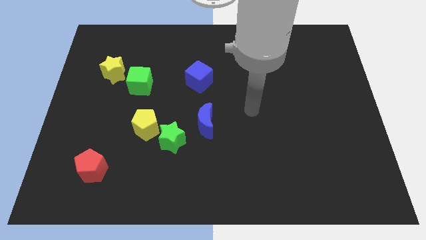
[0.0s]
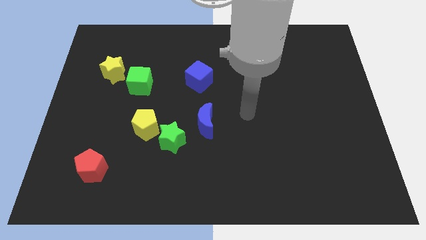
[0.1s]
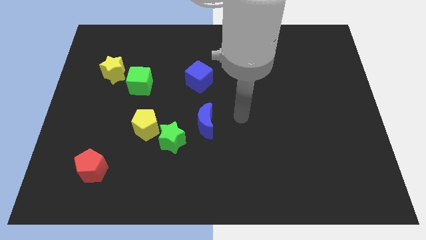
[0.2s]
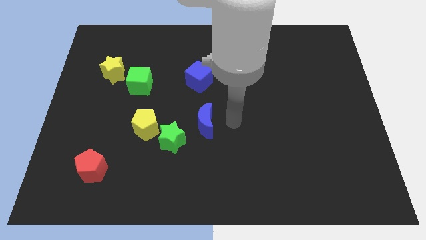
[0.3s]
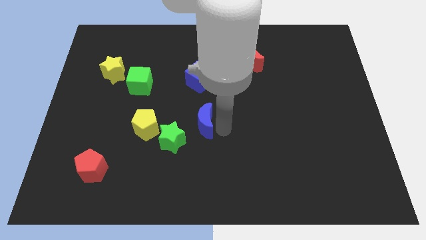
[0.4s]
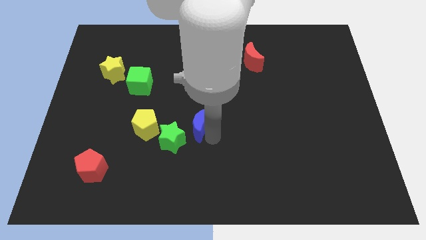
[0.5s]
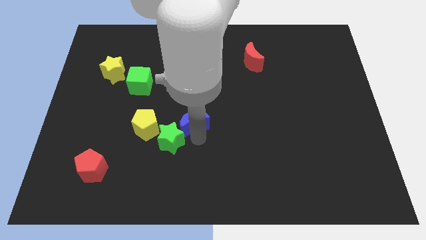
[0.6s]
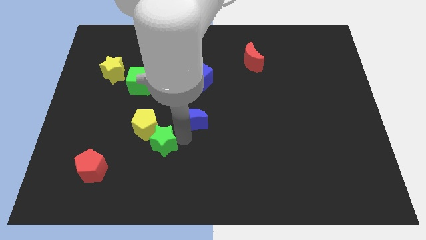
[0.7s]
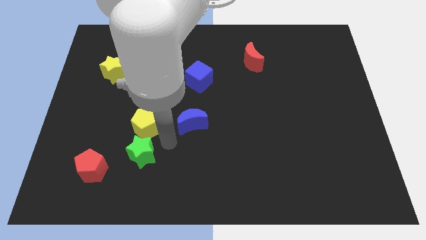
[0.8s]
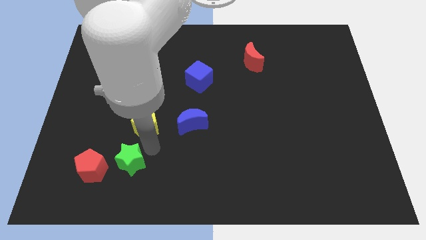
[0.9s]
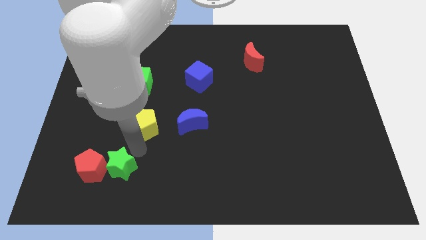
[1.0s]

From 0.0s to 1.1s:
move the yellow pentagon away from the green star

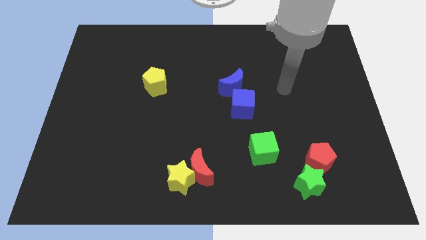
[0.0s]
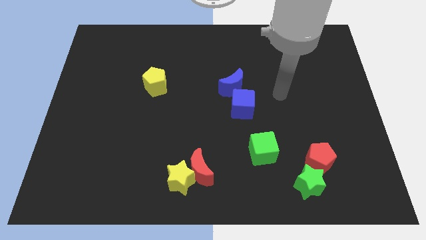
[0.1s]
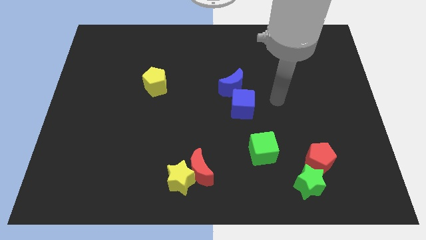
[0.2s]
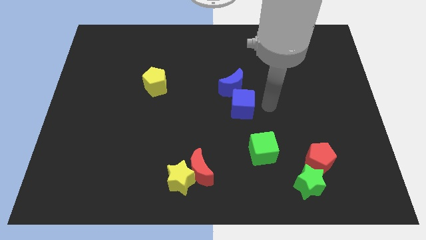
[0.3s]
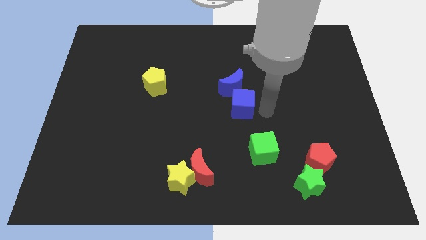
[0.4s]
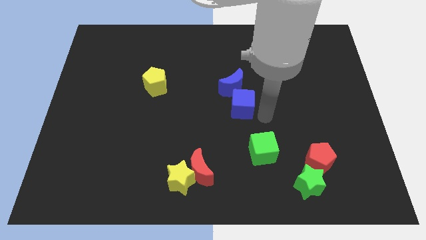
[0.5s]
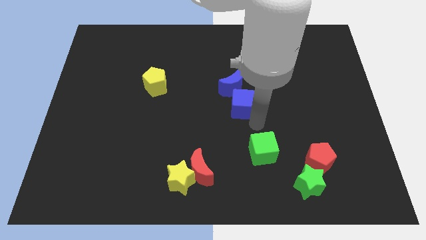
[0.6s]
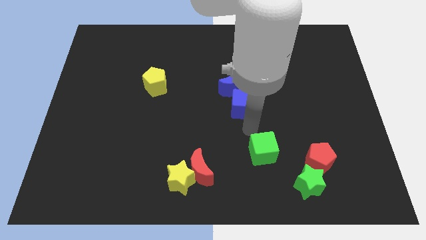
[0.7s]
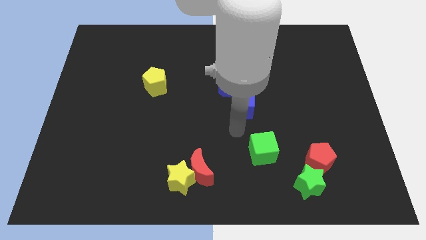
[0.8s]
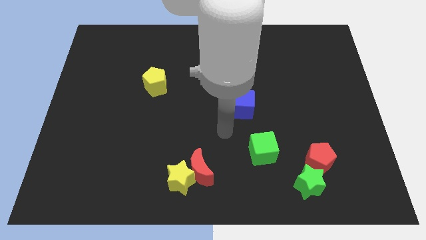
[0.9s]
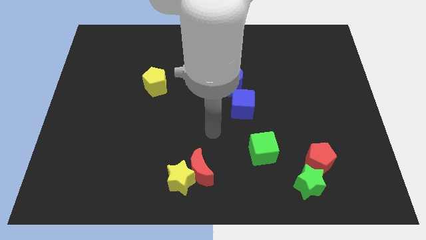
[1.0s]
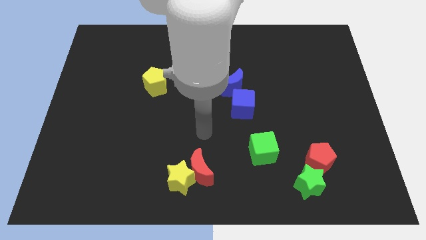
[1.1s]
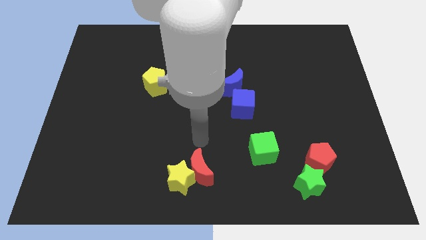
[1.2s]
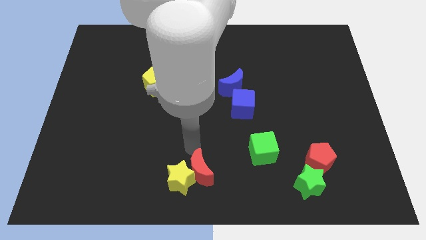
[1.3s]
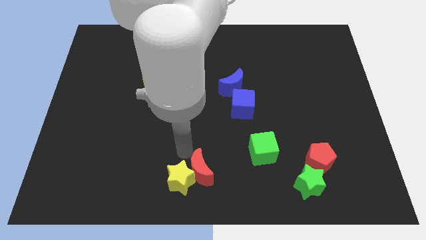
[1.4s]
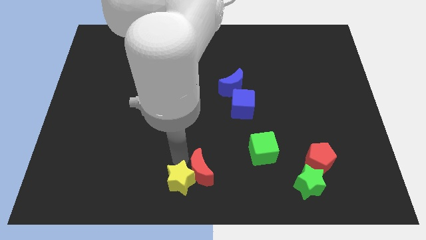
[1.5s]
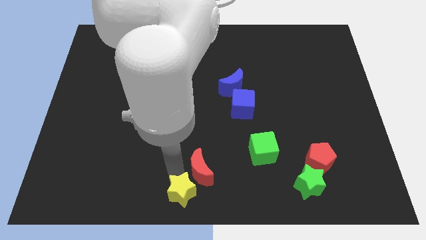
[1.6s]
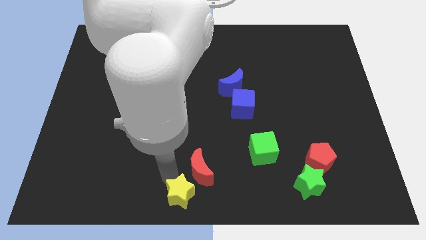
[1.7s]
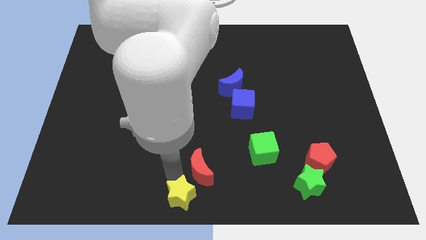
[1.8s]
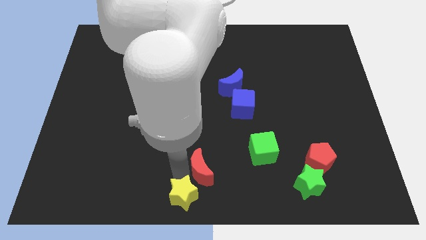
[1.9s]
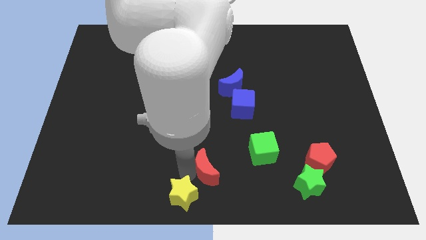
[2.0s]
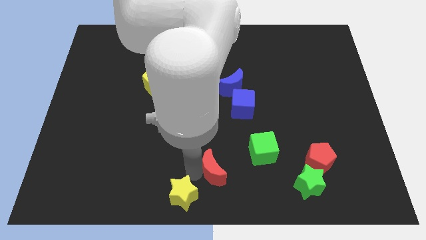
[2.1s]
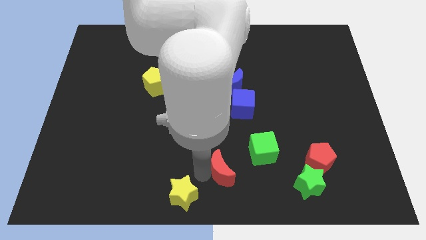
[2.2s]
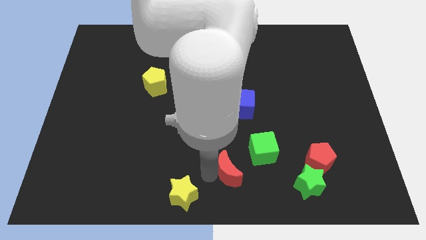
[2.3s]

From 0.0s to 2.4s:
move the red moon away from the yellow star

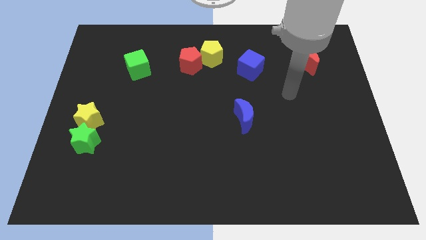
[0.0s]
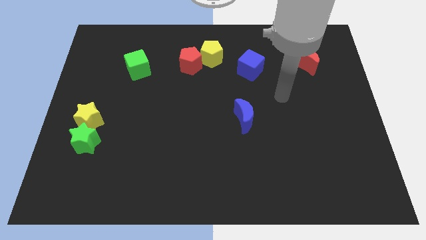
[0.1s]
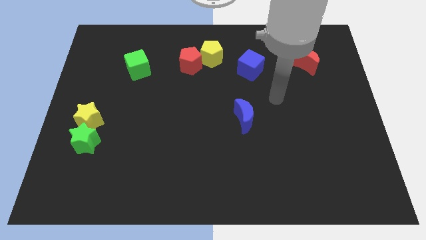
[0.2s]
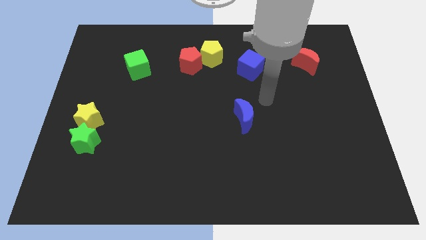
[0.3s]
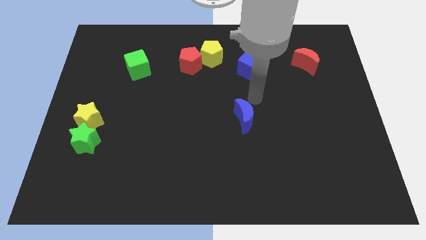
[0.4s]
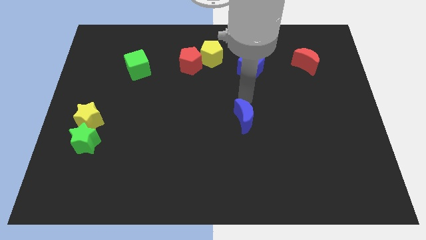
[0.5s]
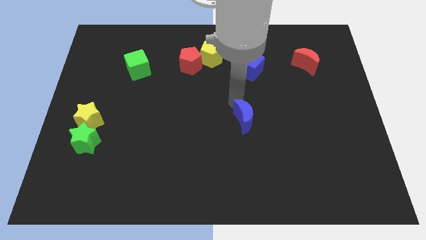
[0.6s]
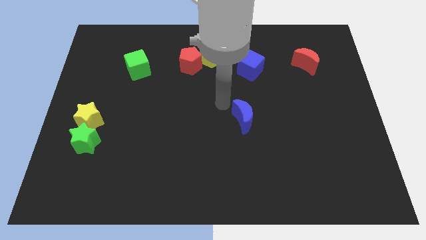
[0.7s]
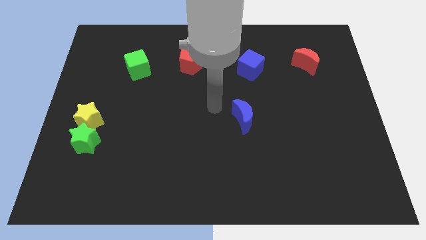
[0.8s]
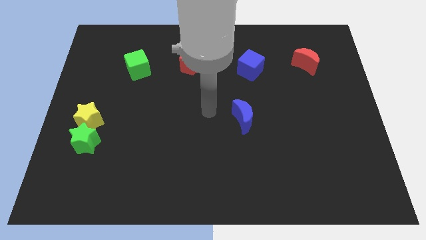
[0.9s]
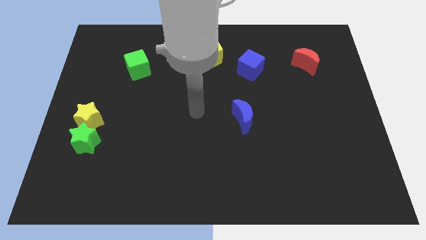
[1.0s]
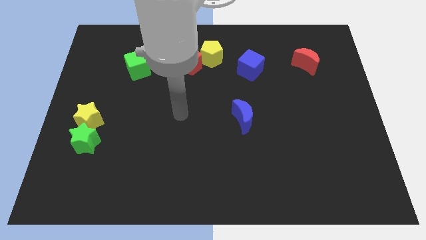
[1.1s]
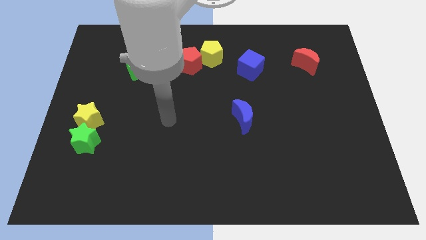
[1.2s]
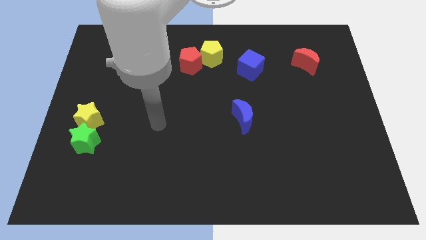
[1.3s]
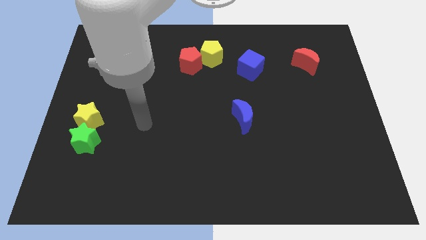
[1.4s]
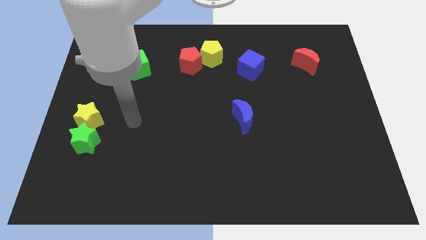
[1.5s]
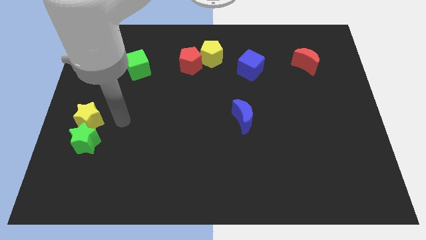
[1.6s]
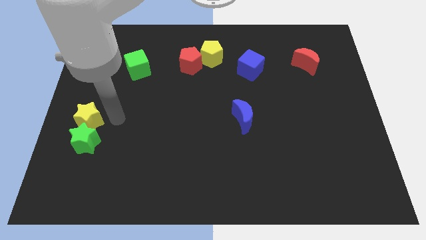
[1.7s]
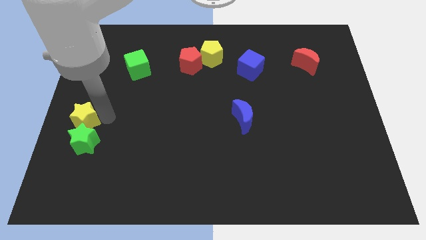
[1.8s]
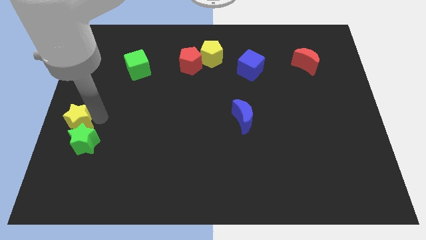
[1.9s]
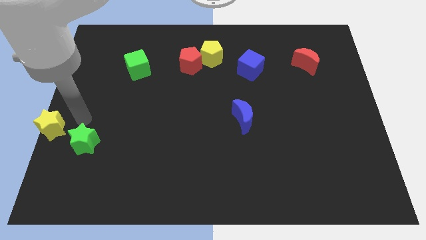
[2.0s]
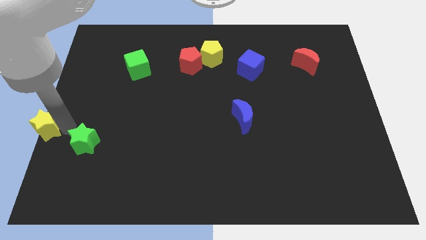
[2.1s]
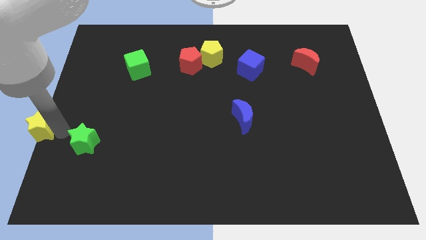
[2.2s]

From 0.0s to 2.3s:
pull the green star apart from the yellow star

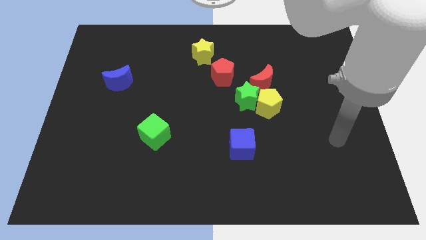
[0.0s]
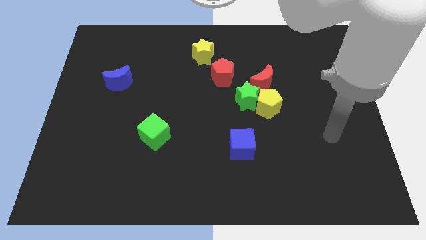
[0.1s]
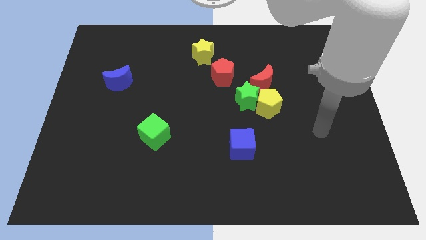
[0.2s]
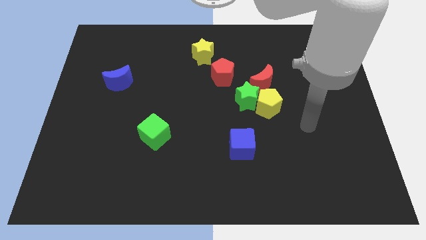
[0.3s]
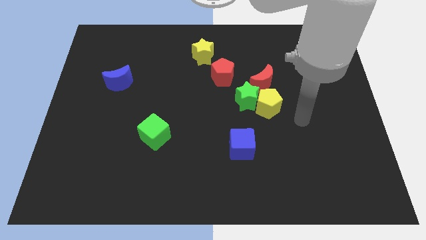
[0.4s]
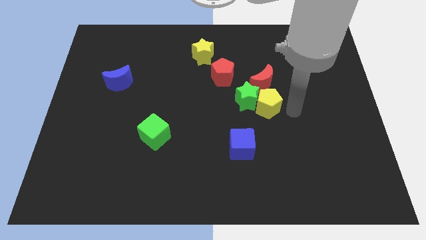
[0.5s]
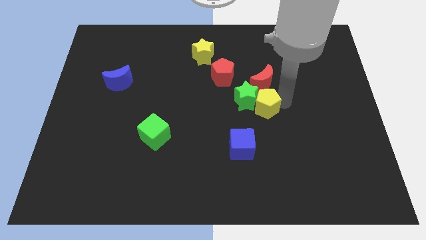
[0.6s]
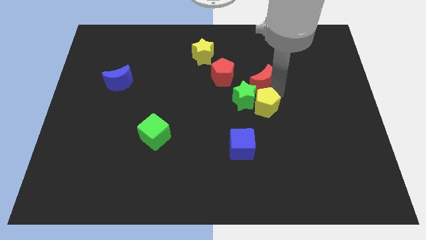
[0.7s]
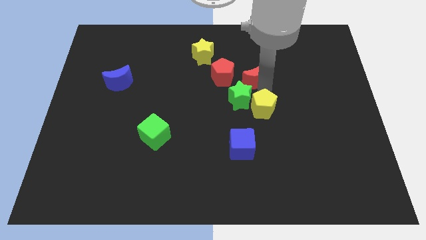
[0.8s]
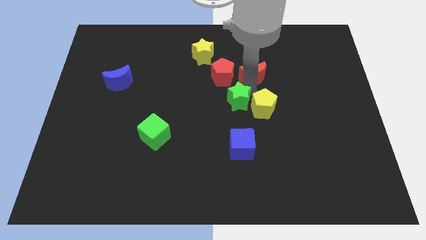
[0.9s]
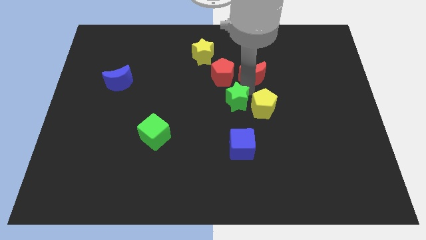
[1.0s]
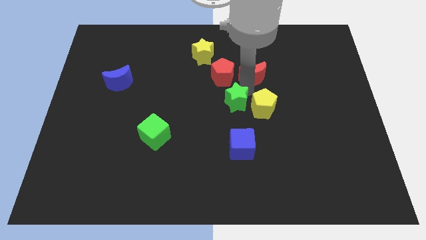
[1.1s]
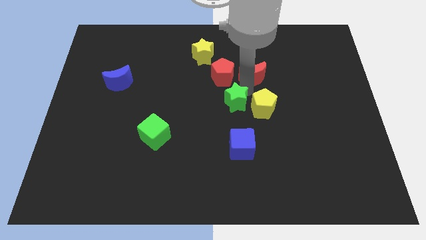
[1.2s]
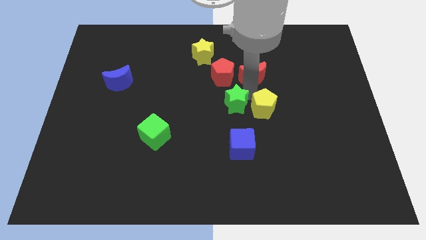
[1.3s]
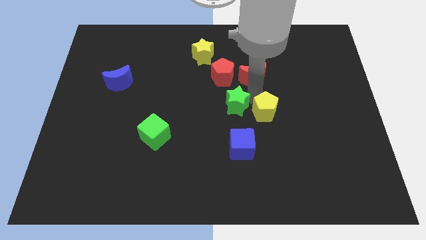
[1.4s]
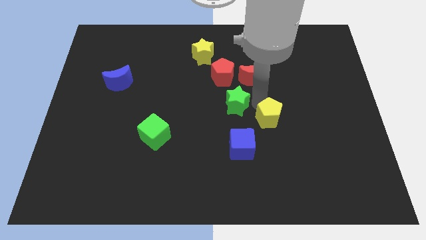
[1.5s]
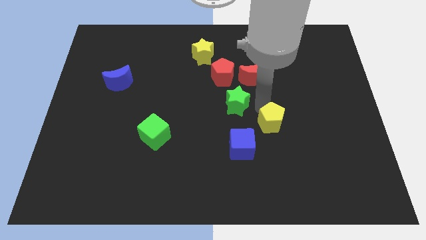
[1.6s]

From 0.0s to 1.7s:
separate the yellow pentagon from the green star and red moon

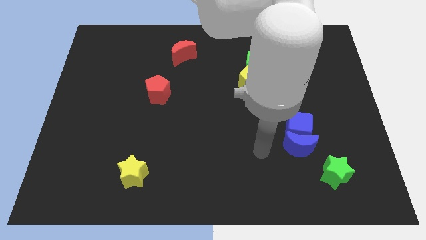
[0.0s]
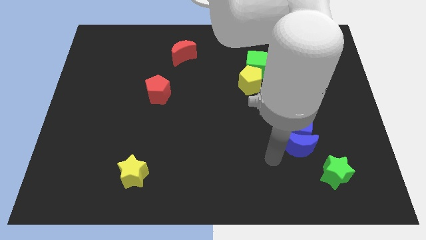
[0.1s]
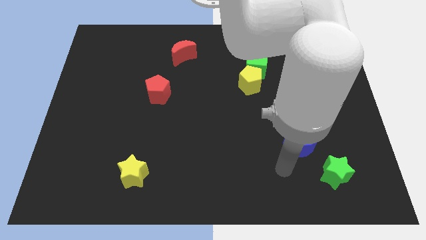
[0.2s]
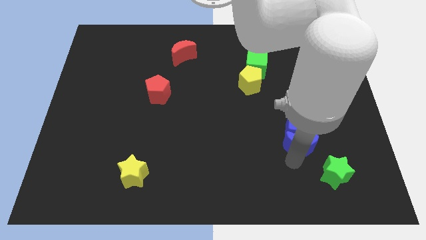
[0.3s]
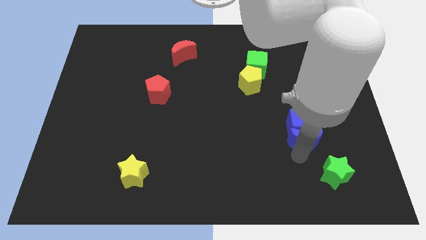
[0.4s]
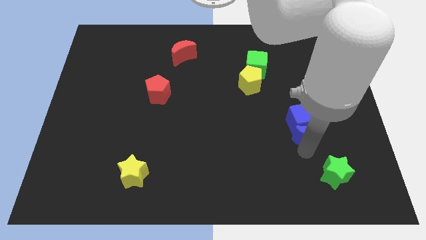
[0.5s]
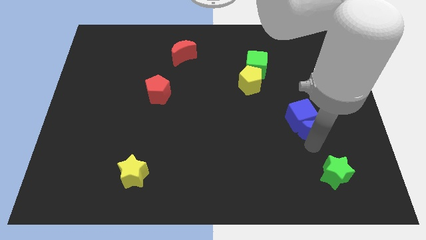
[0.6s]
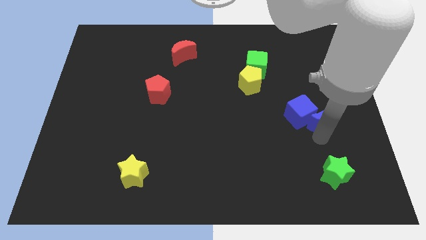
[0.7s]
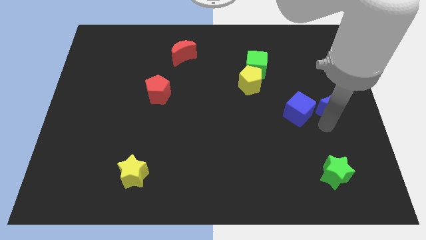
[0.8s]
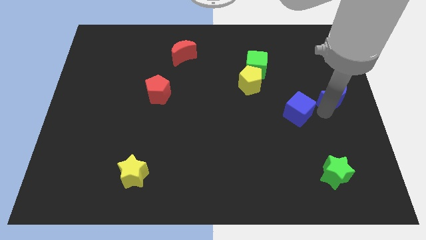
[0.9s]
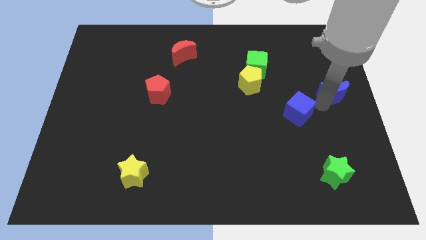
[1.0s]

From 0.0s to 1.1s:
pull the blue cube apart from the blue moon

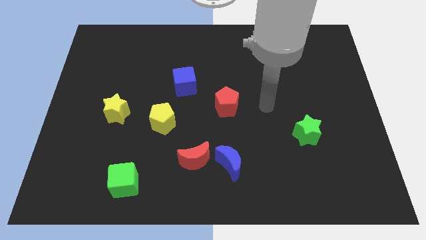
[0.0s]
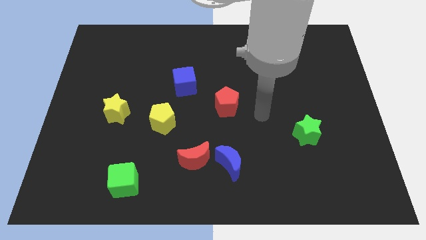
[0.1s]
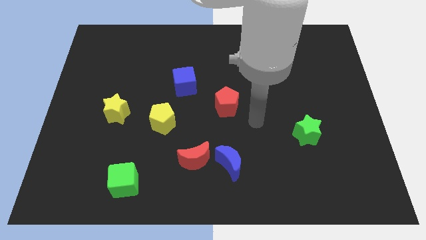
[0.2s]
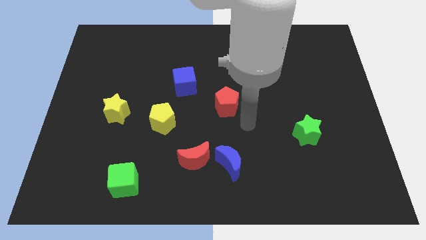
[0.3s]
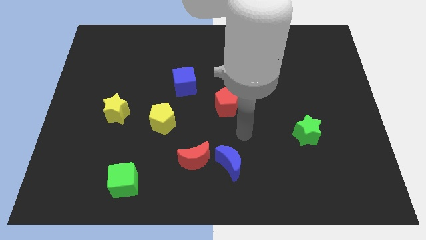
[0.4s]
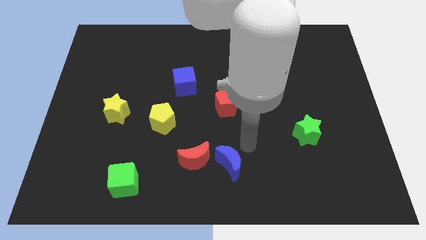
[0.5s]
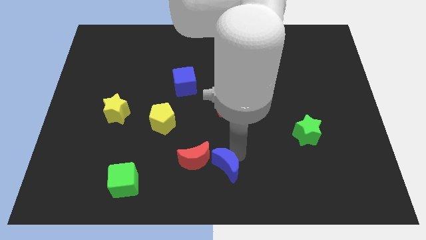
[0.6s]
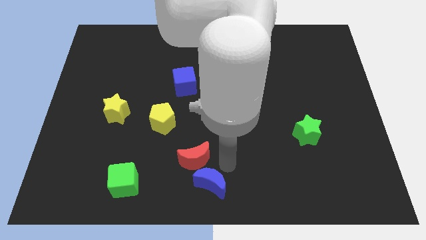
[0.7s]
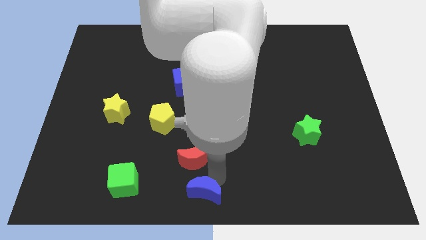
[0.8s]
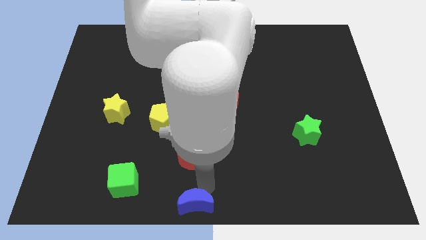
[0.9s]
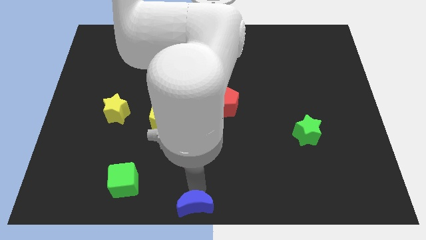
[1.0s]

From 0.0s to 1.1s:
move the red moon away from the blue moon
